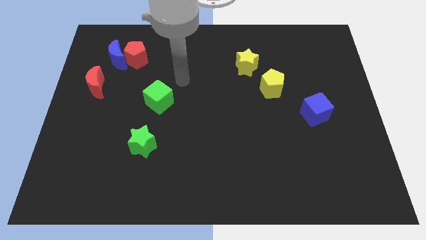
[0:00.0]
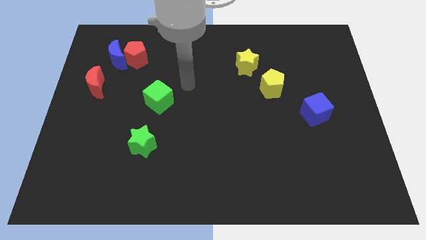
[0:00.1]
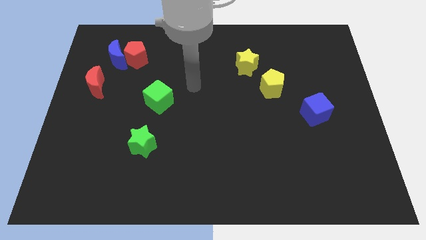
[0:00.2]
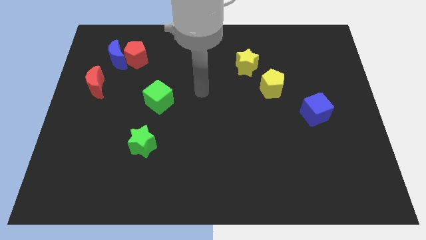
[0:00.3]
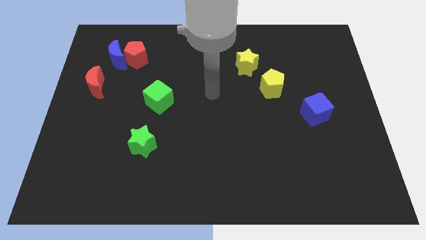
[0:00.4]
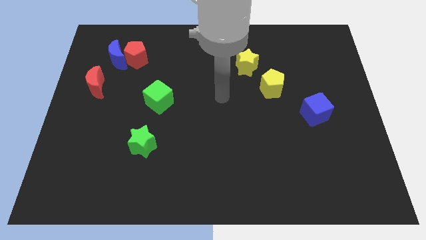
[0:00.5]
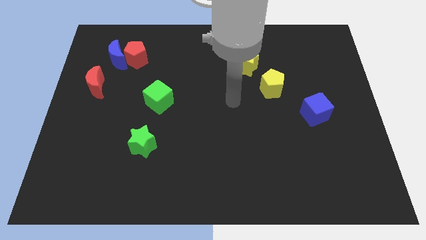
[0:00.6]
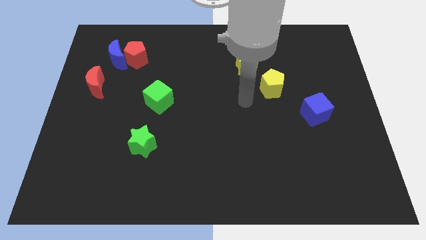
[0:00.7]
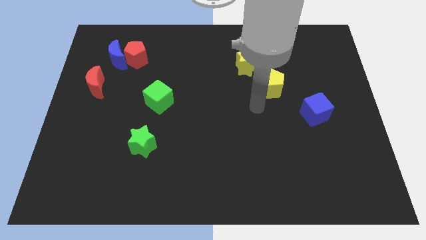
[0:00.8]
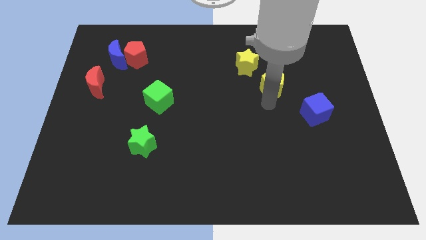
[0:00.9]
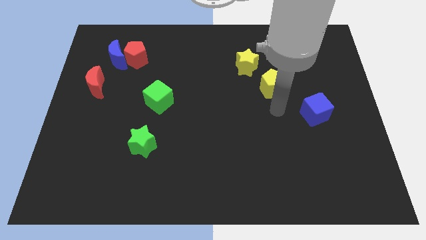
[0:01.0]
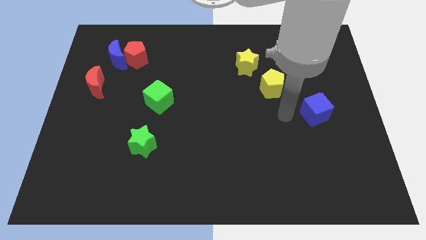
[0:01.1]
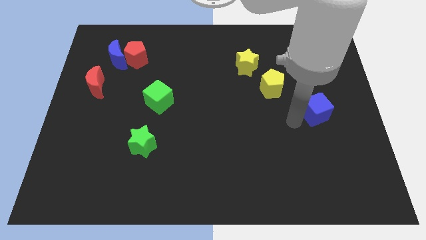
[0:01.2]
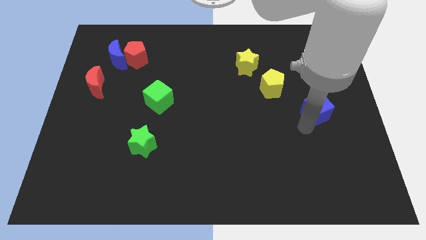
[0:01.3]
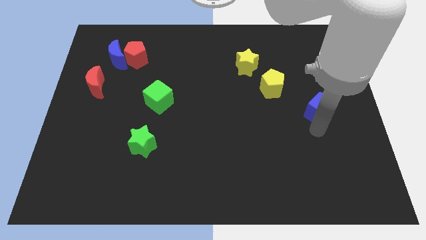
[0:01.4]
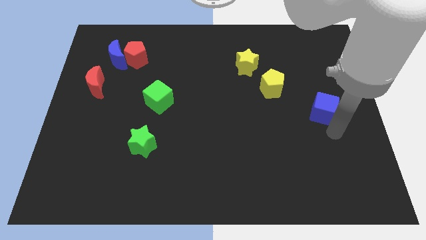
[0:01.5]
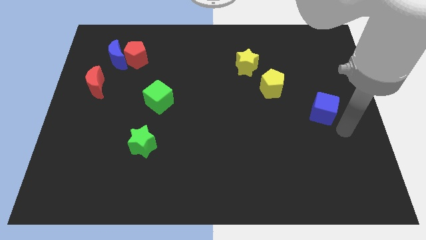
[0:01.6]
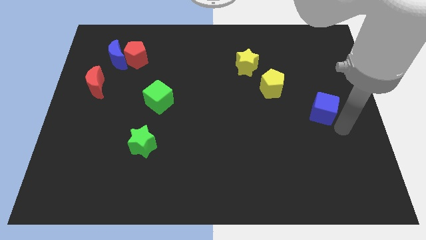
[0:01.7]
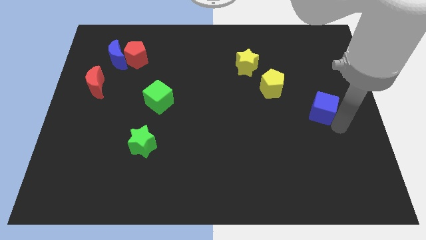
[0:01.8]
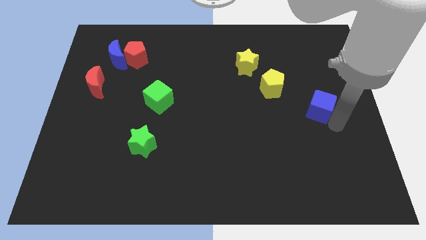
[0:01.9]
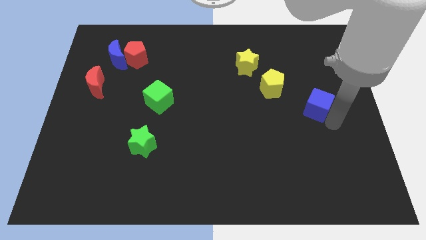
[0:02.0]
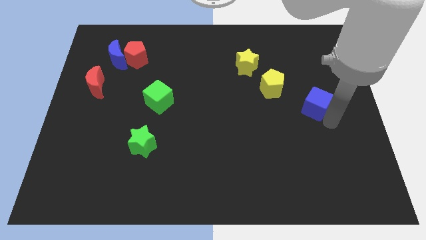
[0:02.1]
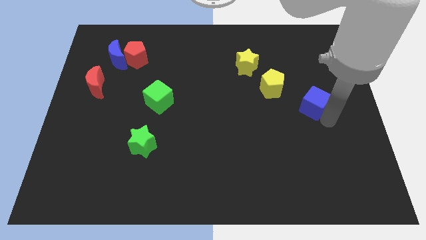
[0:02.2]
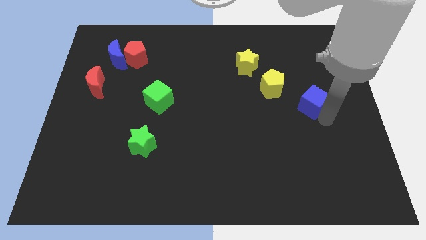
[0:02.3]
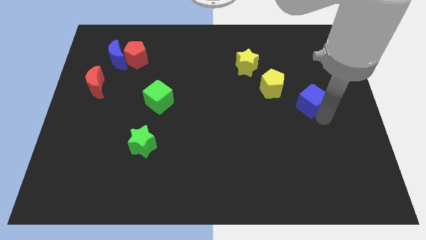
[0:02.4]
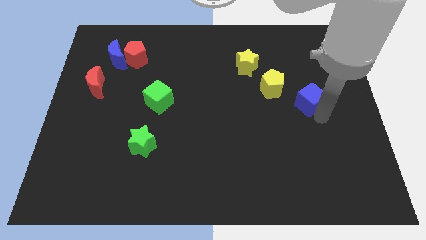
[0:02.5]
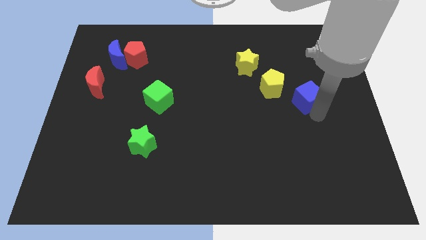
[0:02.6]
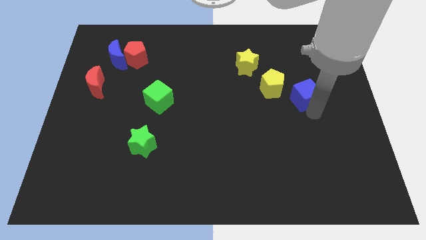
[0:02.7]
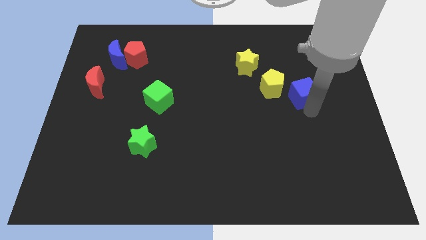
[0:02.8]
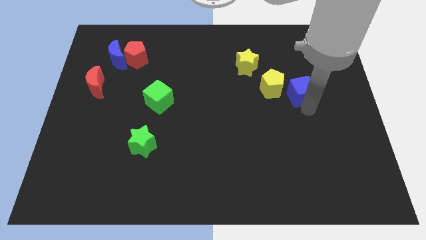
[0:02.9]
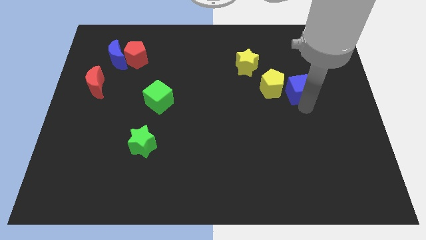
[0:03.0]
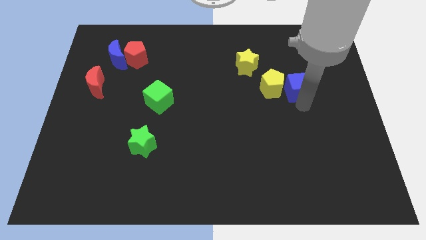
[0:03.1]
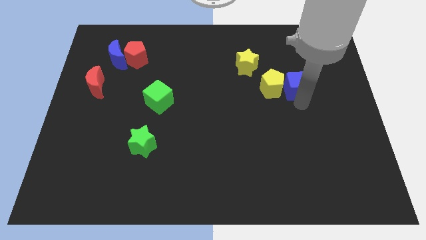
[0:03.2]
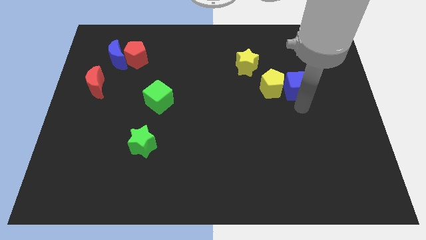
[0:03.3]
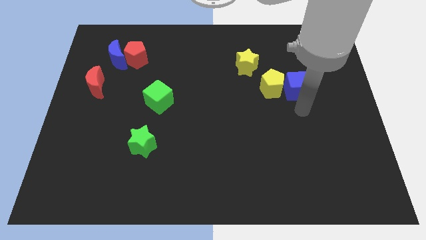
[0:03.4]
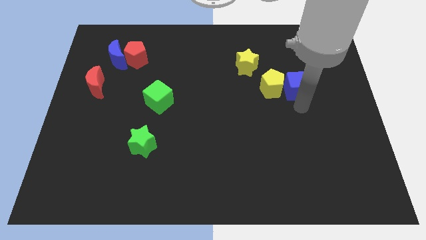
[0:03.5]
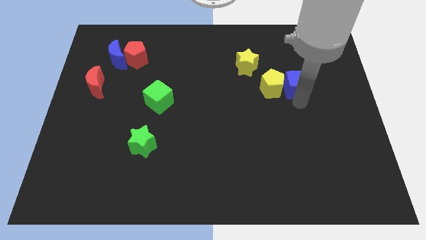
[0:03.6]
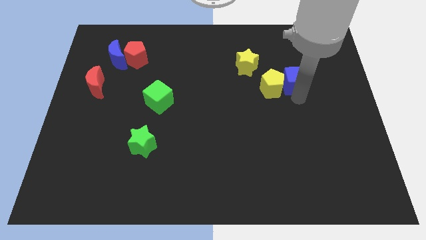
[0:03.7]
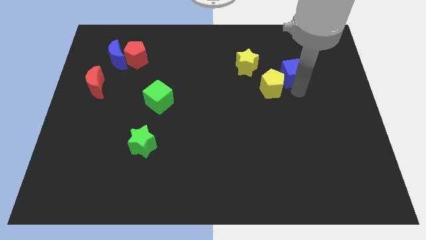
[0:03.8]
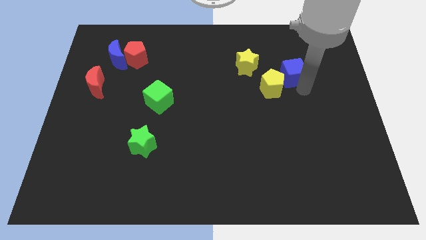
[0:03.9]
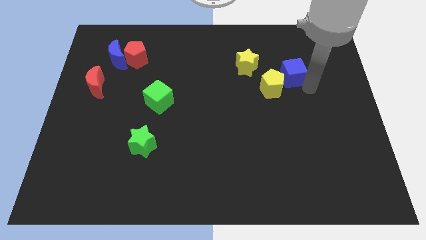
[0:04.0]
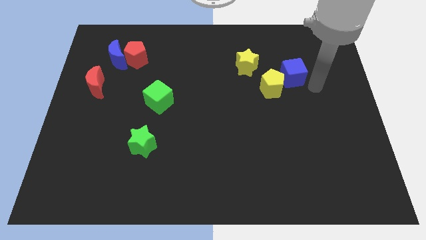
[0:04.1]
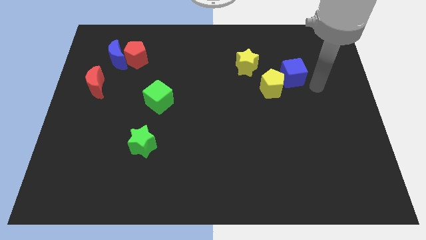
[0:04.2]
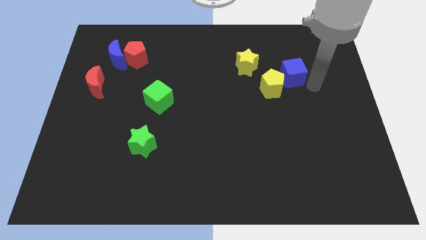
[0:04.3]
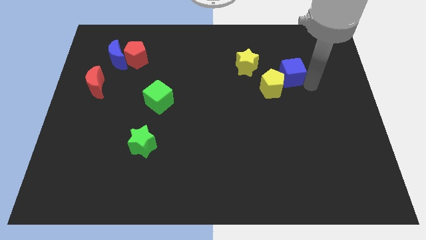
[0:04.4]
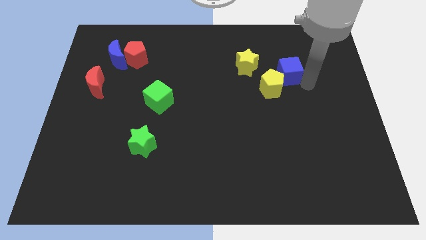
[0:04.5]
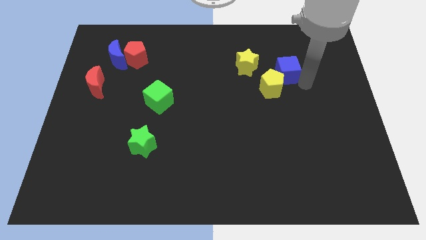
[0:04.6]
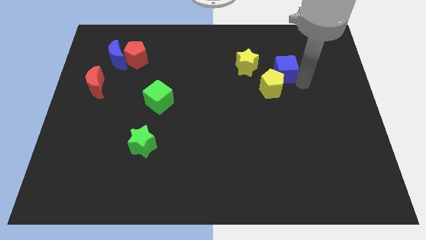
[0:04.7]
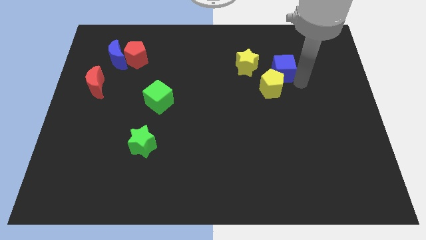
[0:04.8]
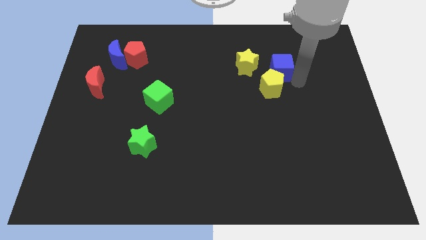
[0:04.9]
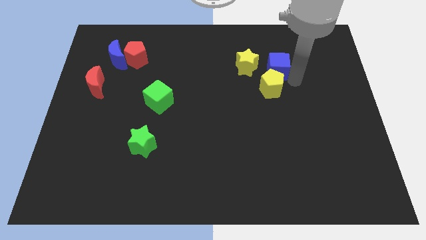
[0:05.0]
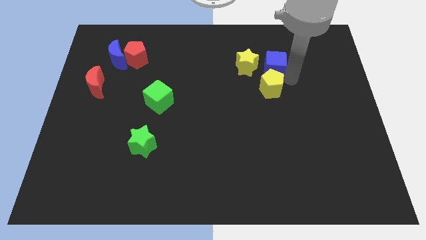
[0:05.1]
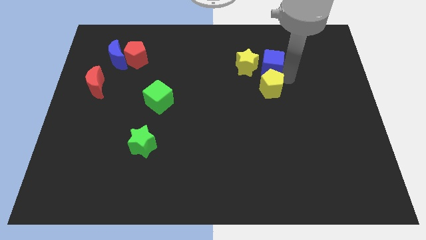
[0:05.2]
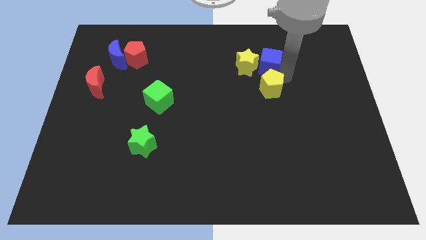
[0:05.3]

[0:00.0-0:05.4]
put the blue cube close to the yellow star

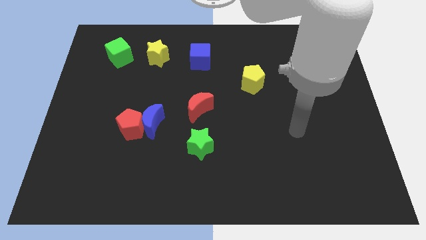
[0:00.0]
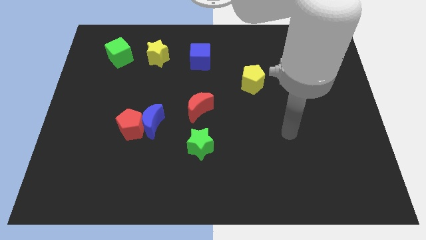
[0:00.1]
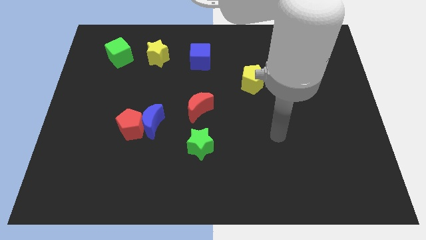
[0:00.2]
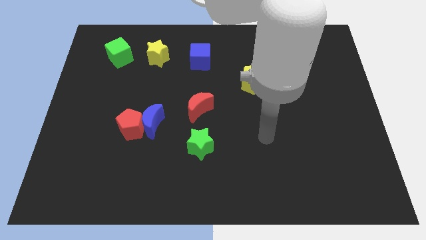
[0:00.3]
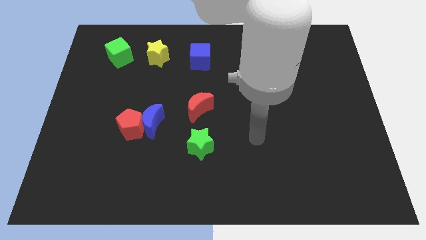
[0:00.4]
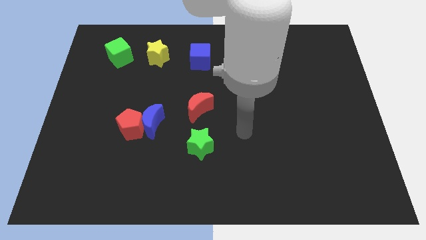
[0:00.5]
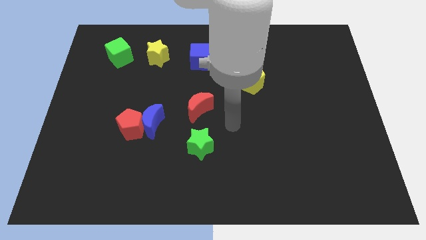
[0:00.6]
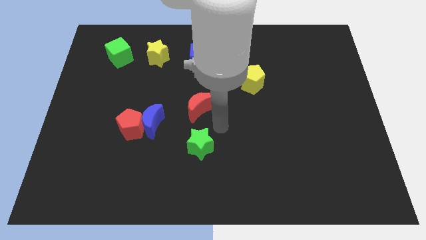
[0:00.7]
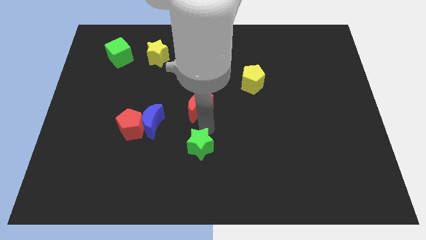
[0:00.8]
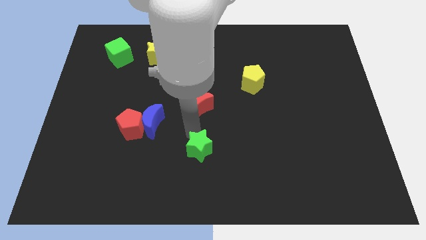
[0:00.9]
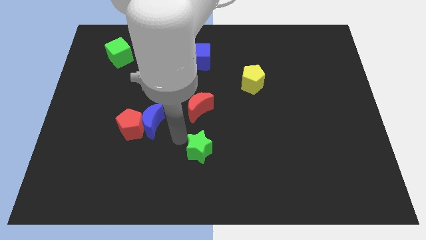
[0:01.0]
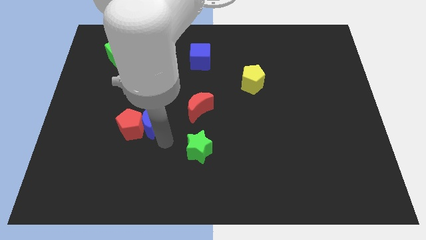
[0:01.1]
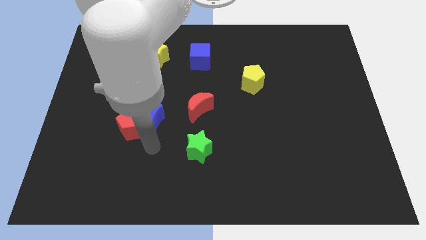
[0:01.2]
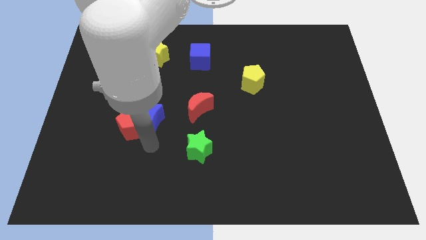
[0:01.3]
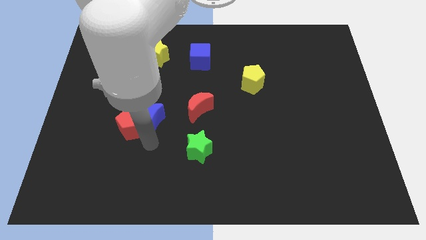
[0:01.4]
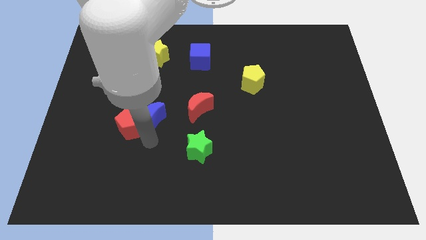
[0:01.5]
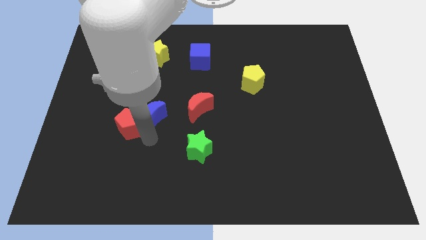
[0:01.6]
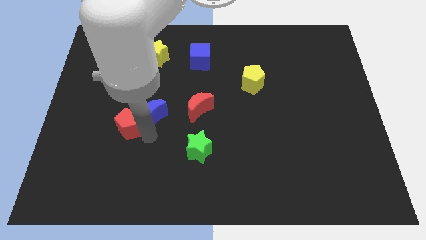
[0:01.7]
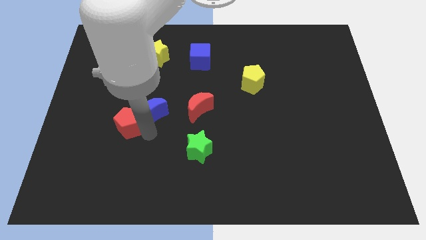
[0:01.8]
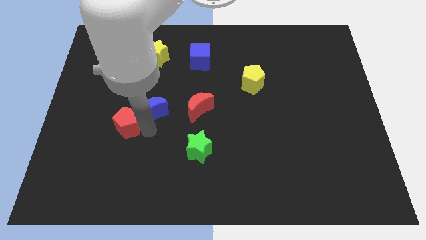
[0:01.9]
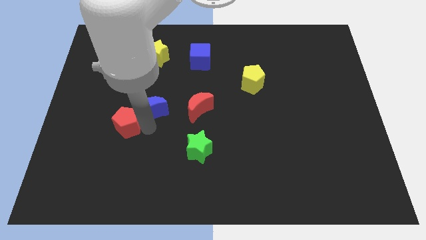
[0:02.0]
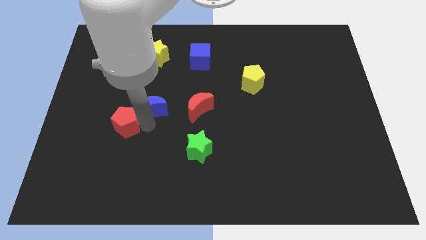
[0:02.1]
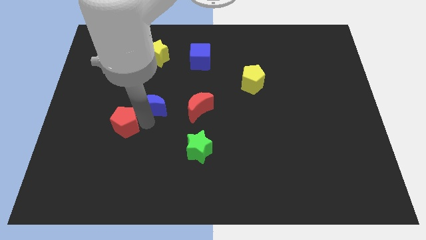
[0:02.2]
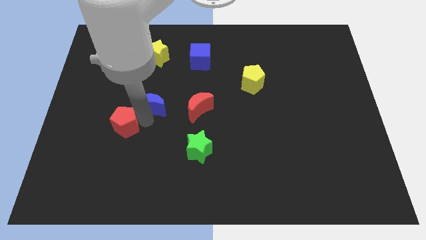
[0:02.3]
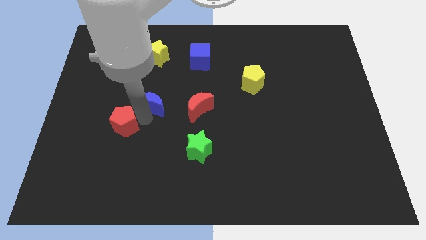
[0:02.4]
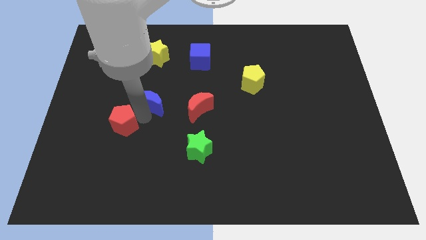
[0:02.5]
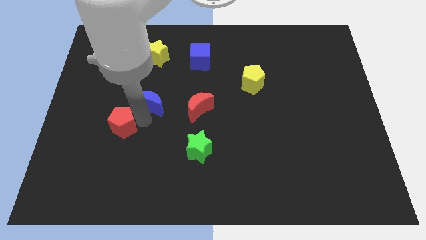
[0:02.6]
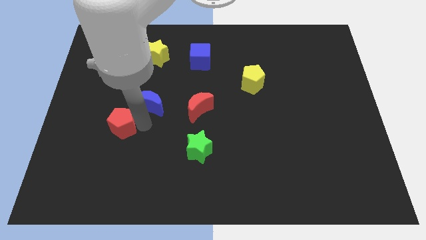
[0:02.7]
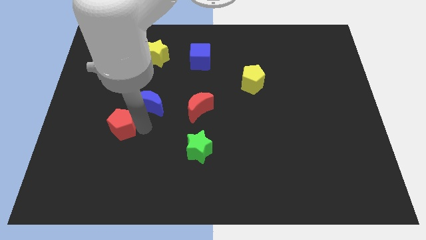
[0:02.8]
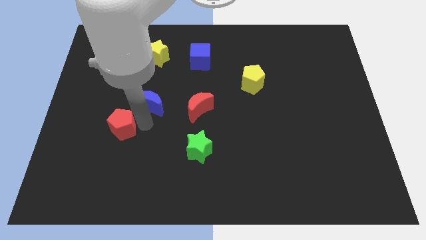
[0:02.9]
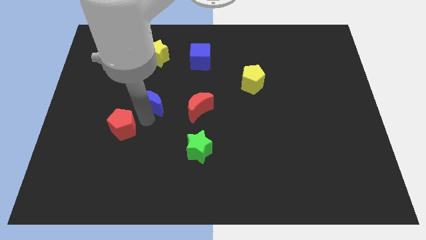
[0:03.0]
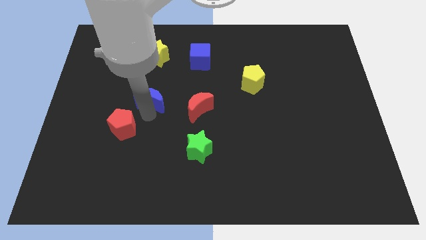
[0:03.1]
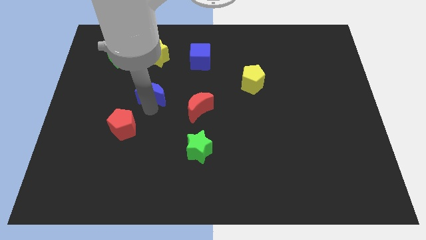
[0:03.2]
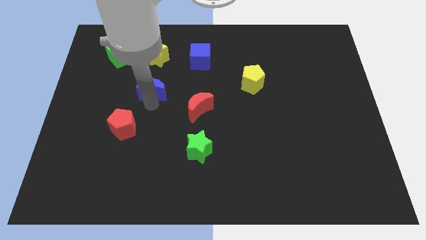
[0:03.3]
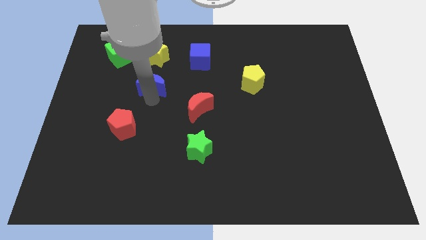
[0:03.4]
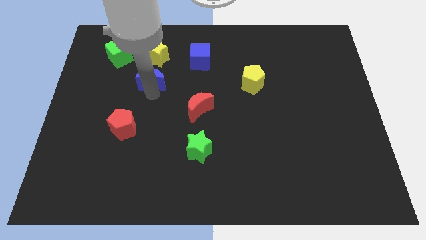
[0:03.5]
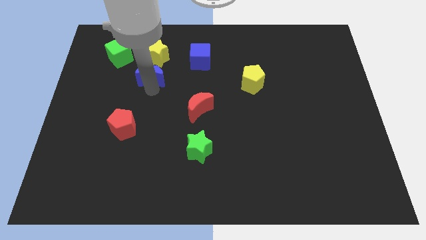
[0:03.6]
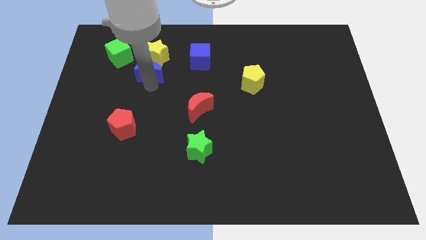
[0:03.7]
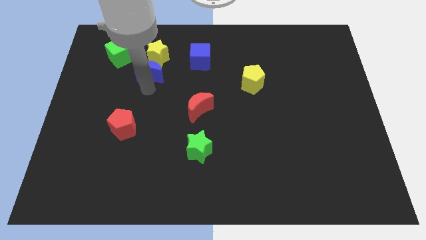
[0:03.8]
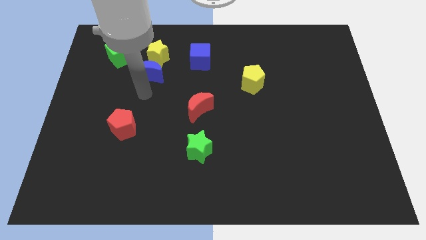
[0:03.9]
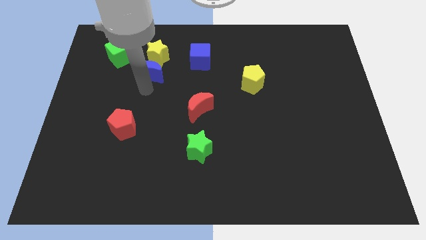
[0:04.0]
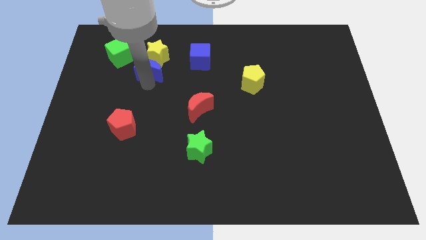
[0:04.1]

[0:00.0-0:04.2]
put the blue moon towards the yellow star
